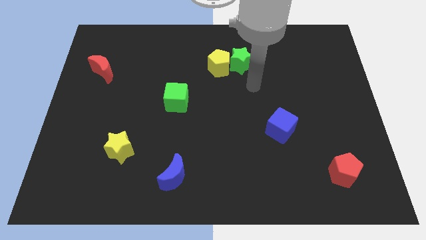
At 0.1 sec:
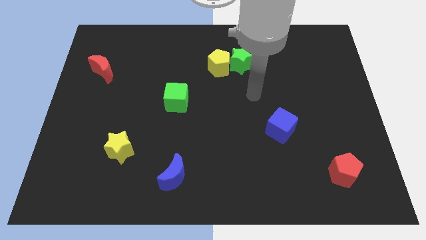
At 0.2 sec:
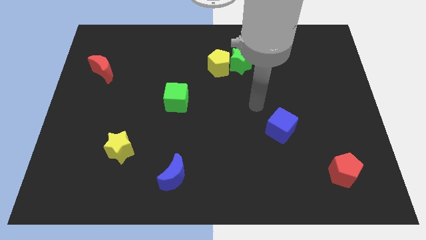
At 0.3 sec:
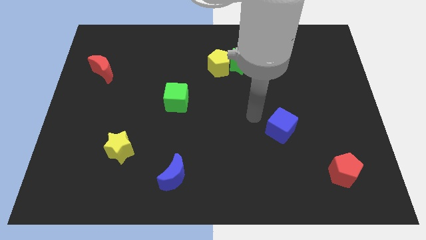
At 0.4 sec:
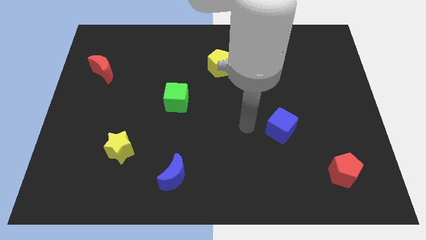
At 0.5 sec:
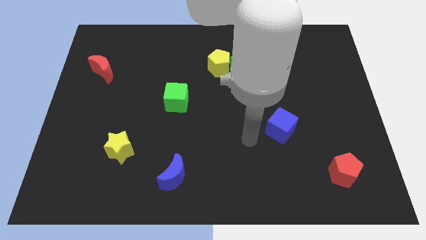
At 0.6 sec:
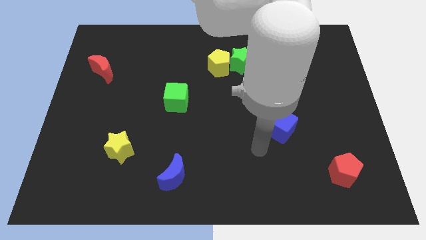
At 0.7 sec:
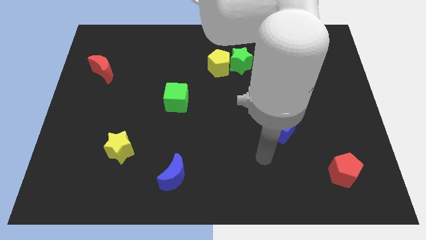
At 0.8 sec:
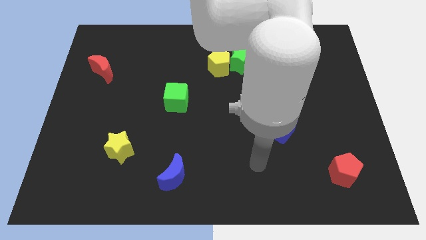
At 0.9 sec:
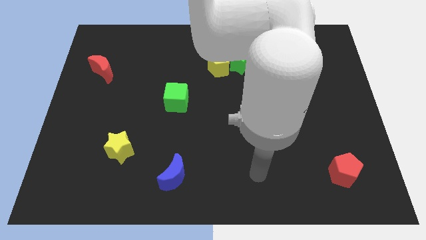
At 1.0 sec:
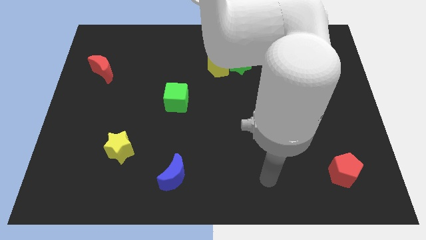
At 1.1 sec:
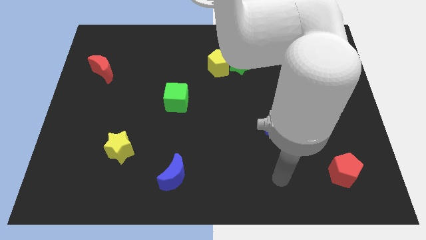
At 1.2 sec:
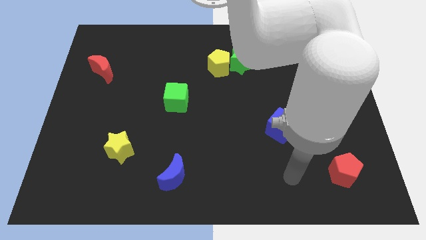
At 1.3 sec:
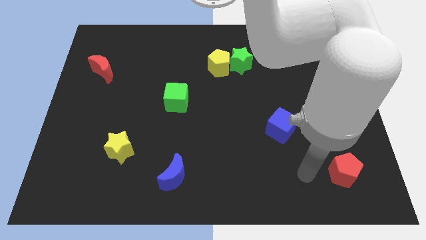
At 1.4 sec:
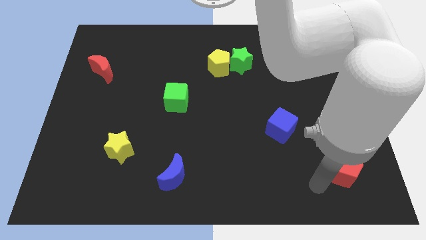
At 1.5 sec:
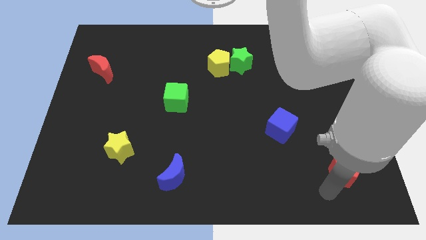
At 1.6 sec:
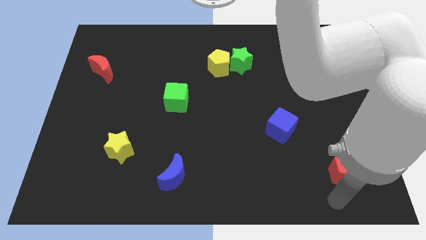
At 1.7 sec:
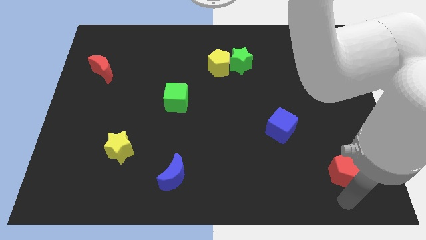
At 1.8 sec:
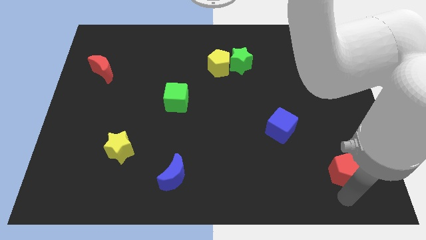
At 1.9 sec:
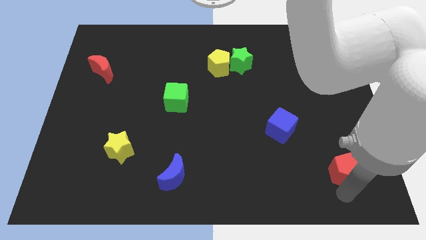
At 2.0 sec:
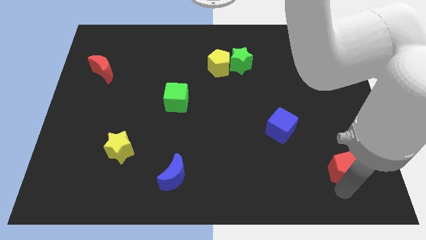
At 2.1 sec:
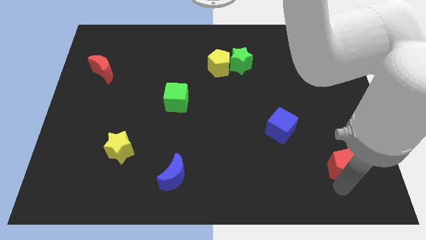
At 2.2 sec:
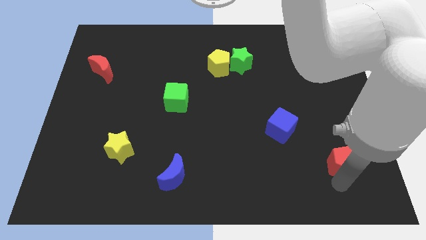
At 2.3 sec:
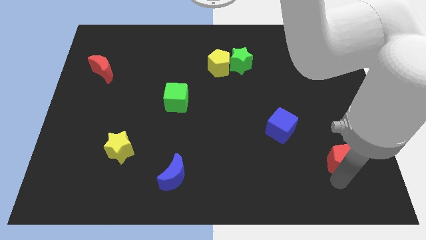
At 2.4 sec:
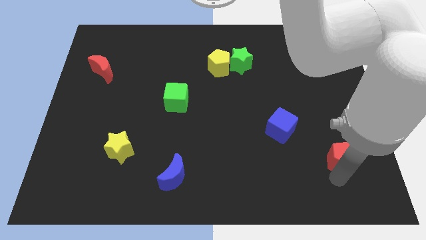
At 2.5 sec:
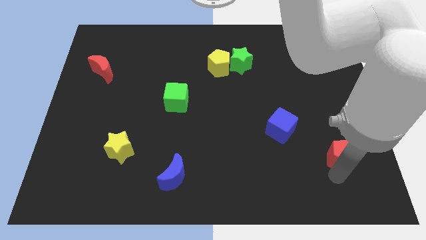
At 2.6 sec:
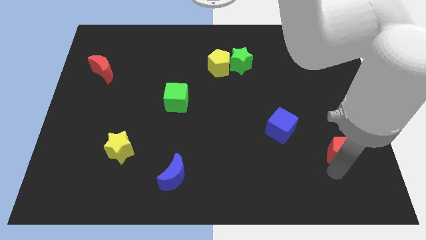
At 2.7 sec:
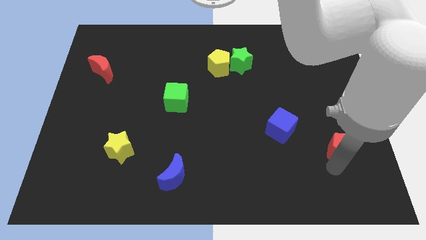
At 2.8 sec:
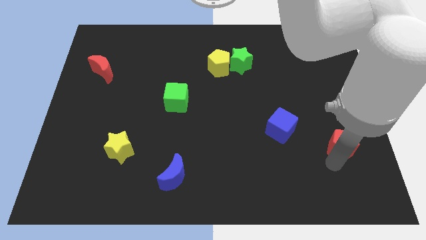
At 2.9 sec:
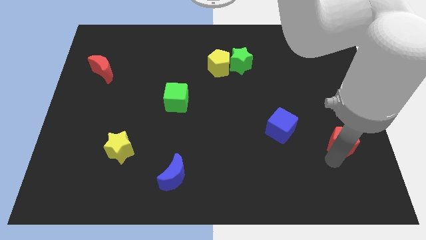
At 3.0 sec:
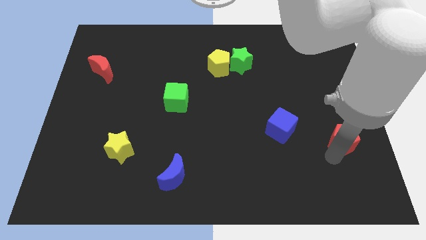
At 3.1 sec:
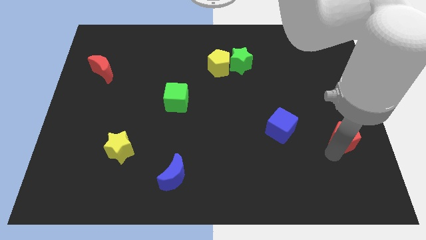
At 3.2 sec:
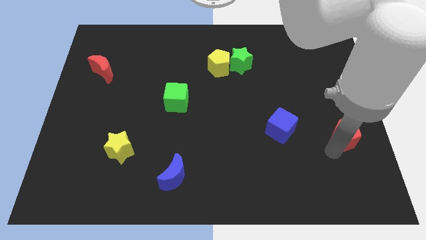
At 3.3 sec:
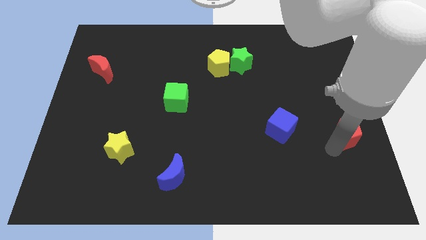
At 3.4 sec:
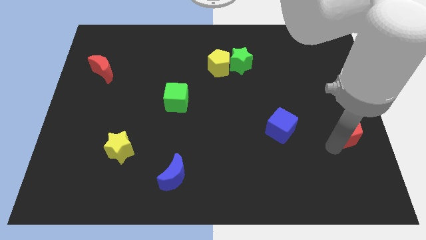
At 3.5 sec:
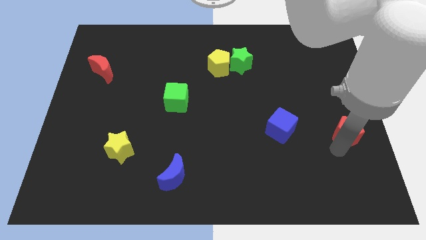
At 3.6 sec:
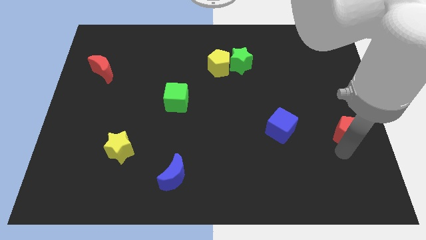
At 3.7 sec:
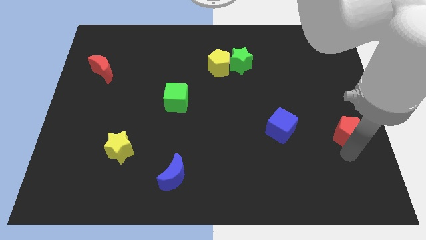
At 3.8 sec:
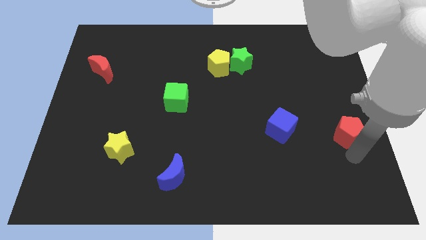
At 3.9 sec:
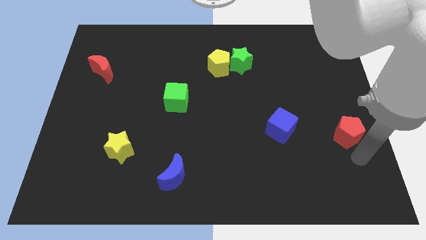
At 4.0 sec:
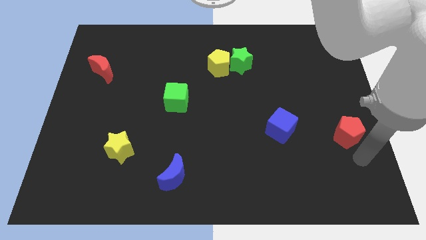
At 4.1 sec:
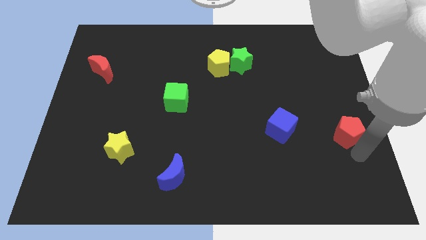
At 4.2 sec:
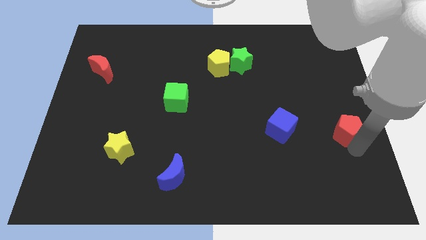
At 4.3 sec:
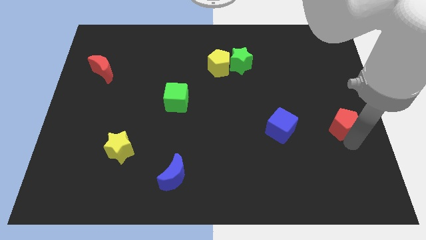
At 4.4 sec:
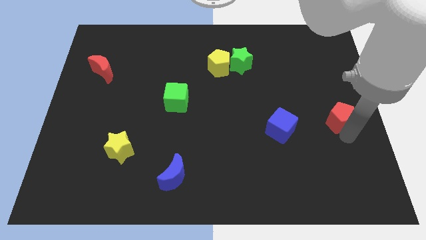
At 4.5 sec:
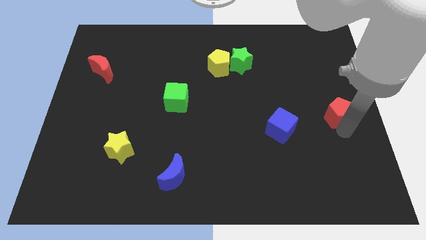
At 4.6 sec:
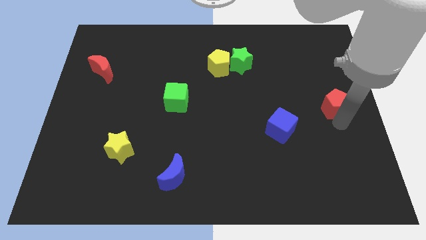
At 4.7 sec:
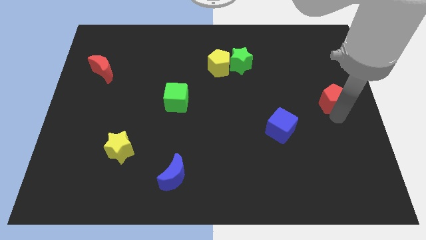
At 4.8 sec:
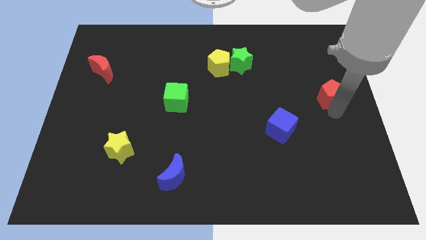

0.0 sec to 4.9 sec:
push the red pentagon upwards

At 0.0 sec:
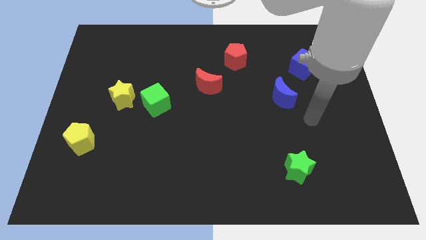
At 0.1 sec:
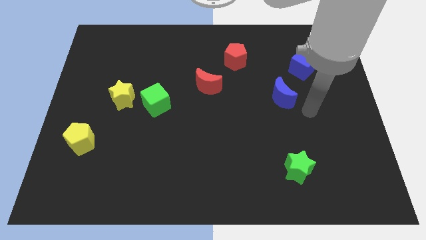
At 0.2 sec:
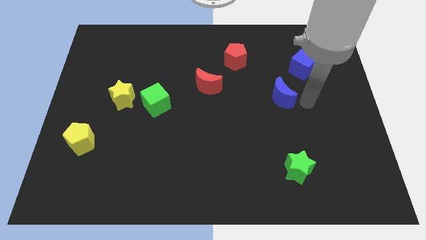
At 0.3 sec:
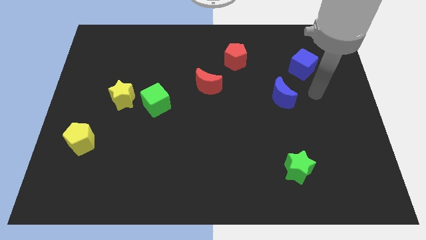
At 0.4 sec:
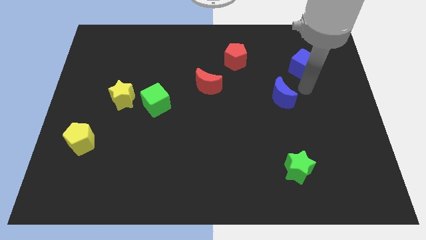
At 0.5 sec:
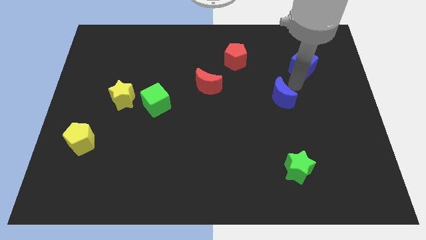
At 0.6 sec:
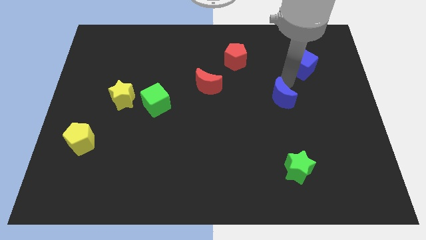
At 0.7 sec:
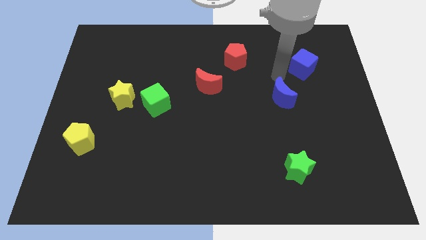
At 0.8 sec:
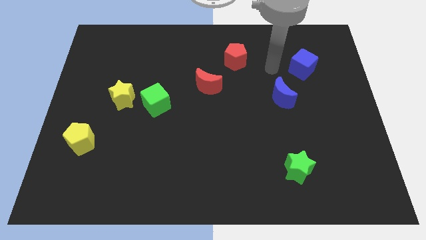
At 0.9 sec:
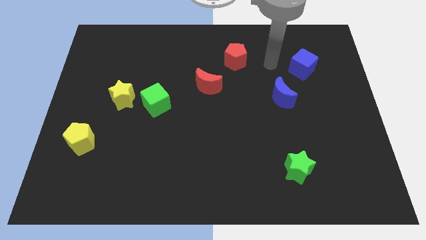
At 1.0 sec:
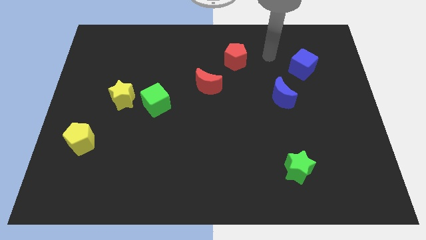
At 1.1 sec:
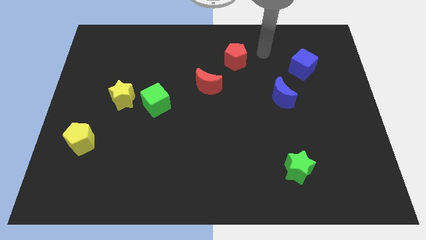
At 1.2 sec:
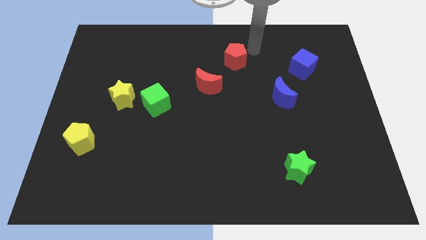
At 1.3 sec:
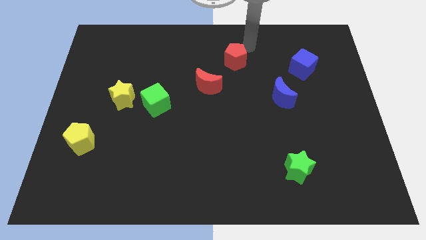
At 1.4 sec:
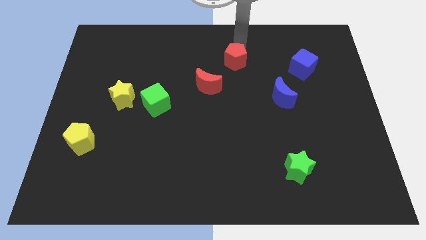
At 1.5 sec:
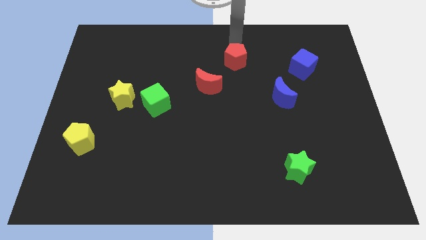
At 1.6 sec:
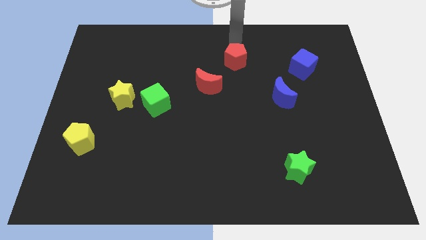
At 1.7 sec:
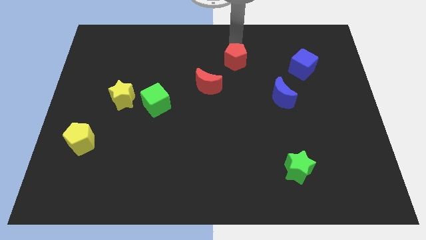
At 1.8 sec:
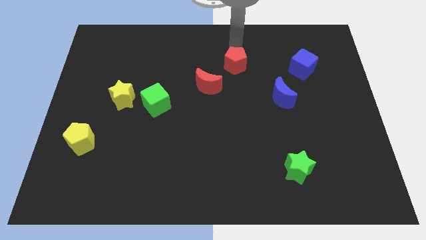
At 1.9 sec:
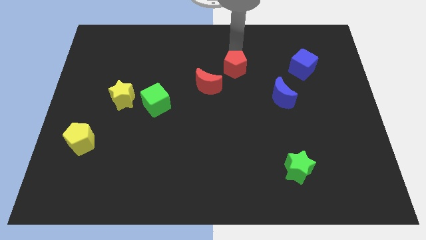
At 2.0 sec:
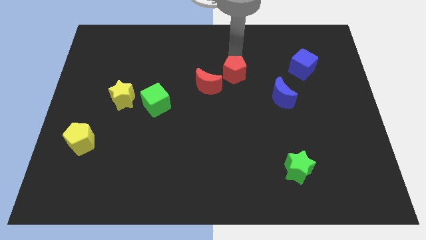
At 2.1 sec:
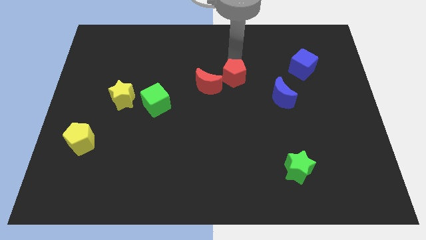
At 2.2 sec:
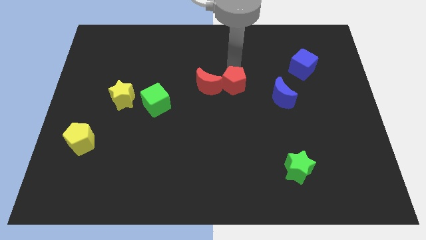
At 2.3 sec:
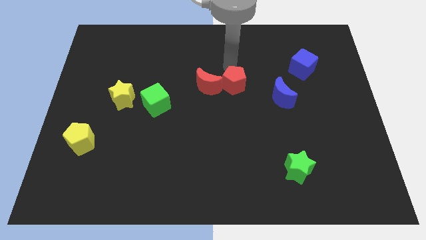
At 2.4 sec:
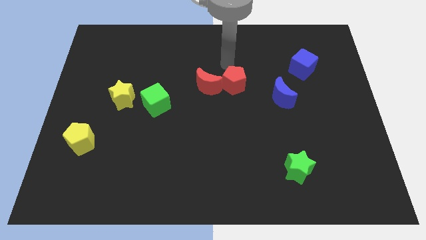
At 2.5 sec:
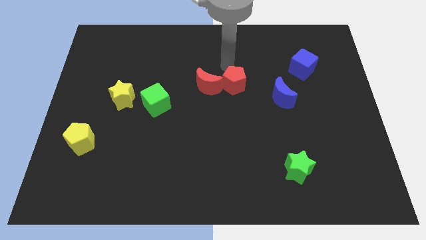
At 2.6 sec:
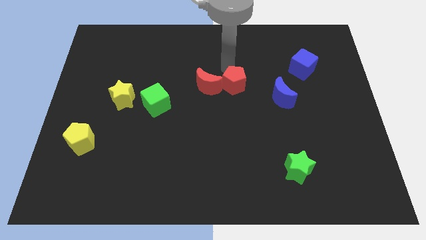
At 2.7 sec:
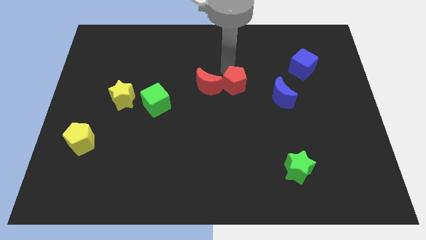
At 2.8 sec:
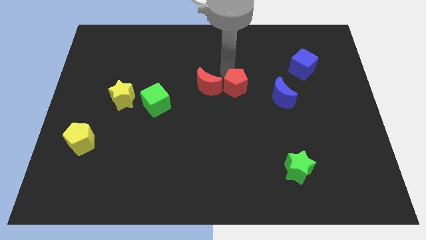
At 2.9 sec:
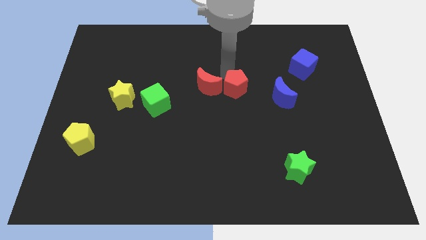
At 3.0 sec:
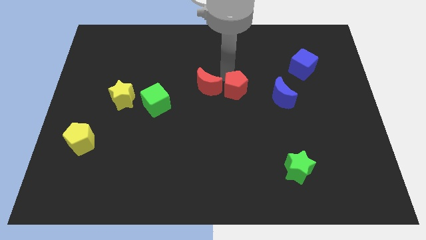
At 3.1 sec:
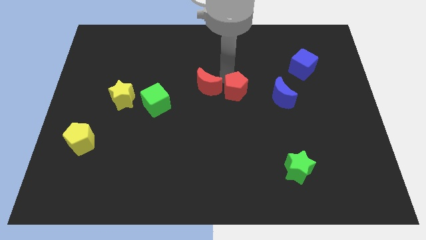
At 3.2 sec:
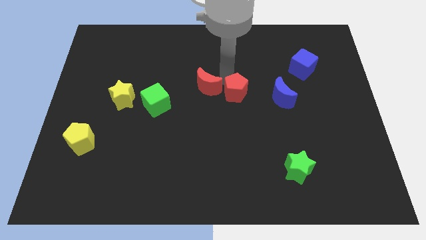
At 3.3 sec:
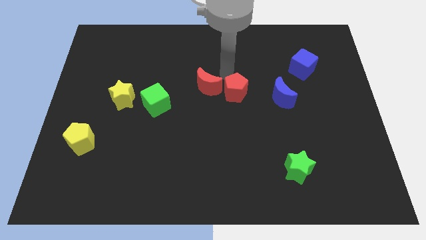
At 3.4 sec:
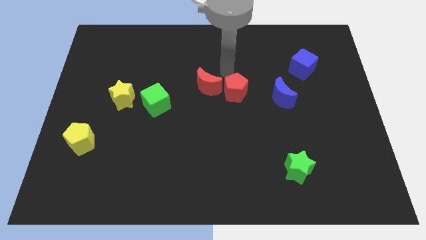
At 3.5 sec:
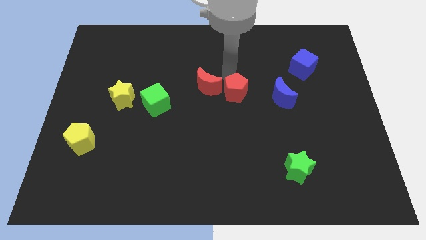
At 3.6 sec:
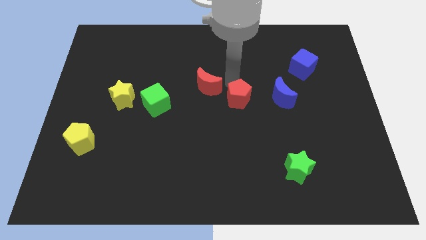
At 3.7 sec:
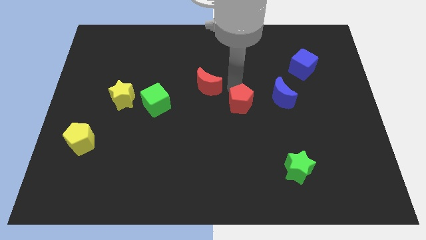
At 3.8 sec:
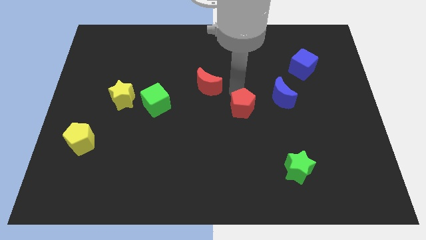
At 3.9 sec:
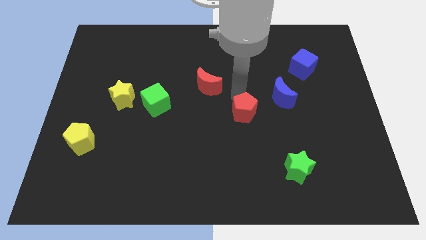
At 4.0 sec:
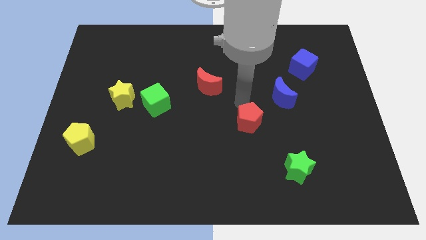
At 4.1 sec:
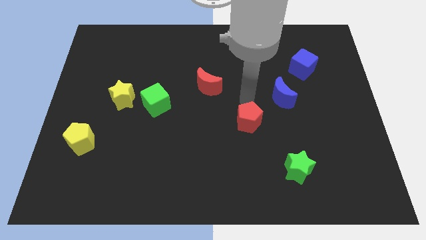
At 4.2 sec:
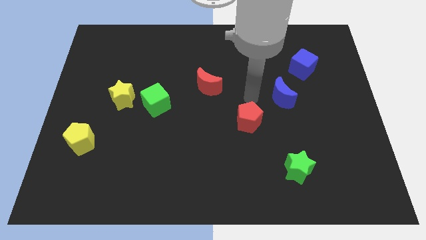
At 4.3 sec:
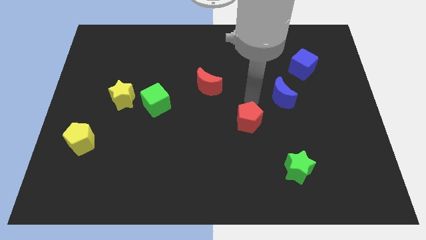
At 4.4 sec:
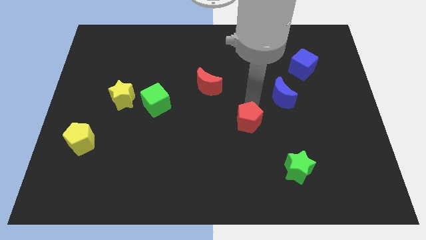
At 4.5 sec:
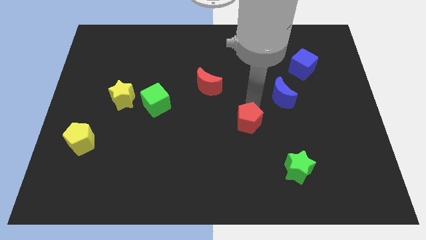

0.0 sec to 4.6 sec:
move the red pentagon downwards
